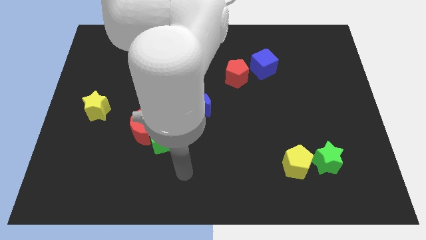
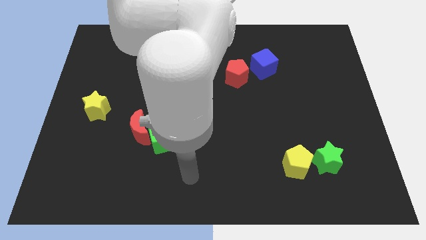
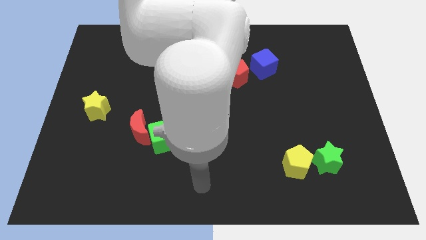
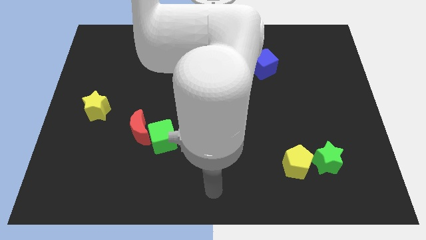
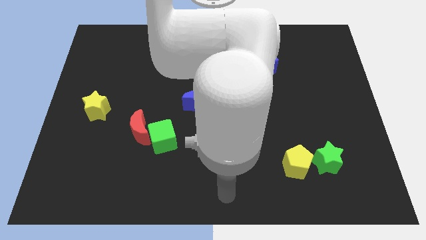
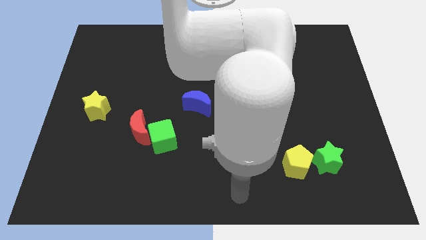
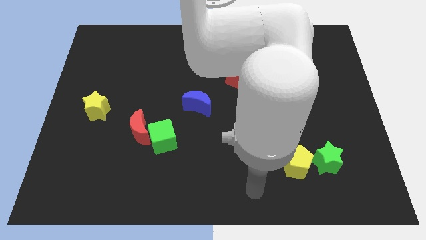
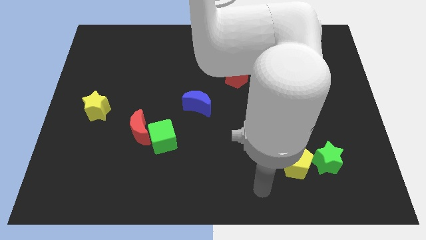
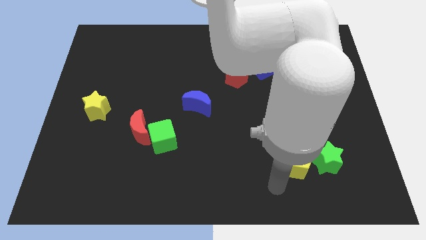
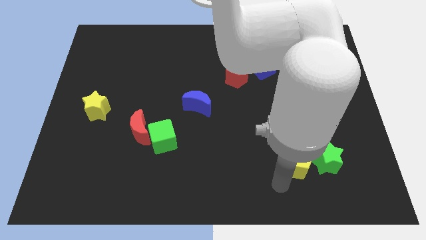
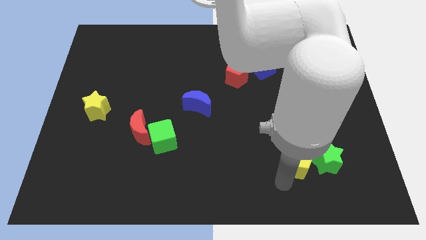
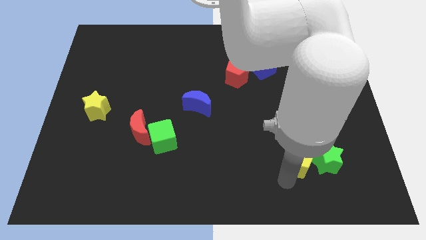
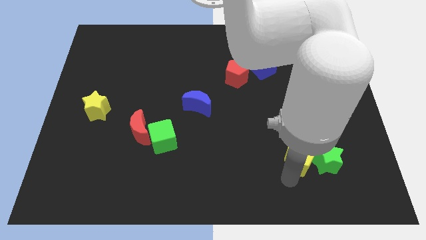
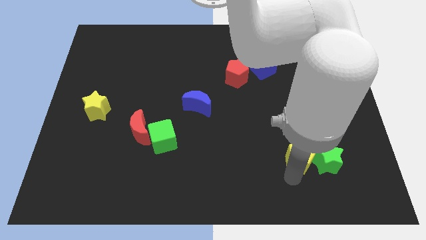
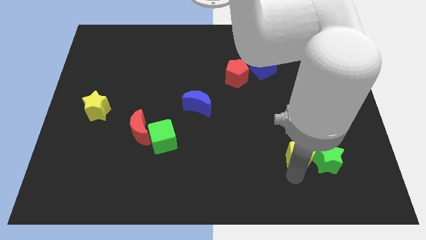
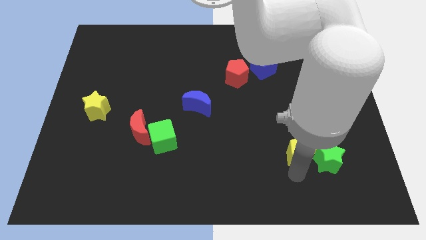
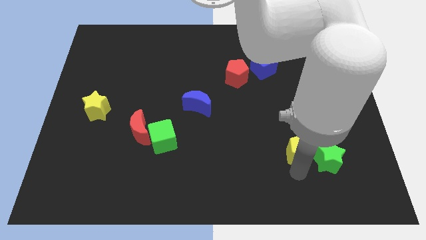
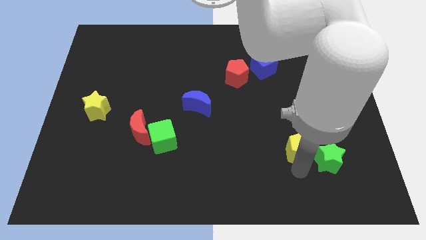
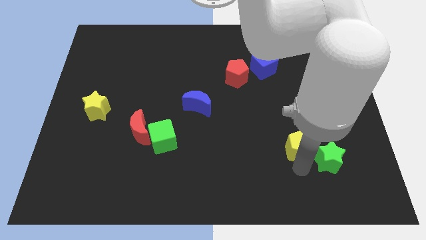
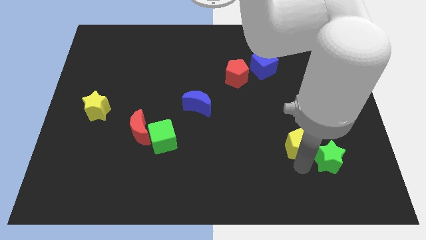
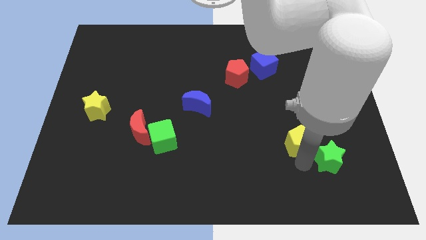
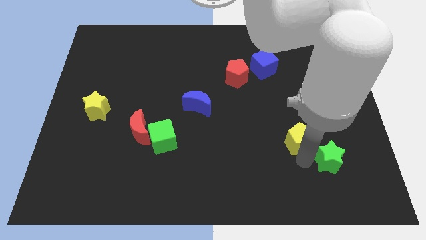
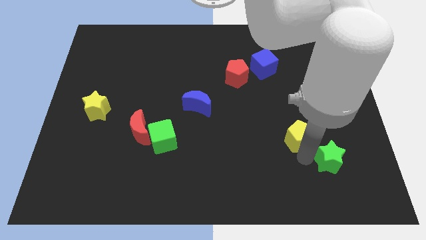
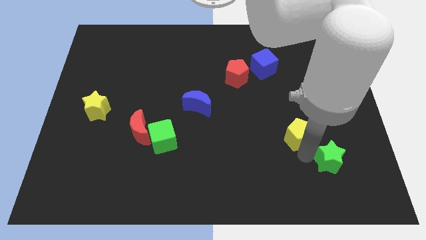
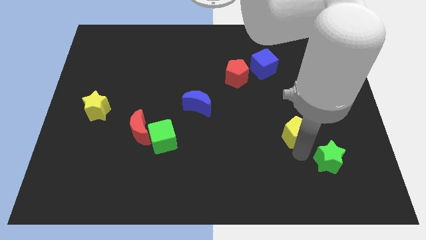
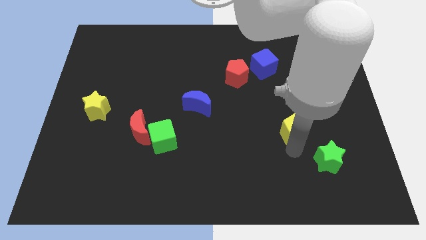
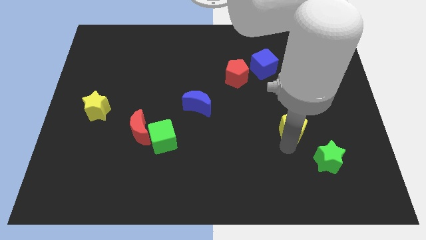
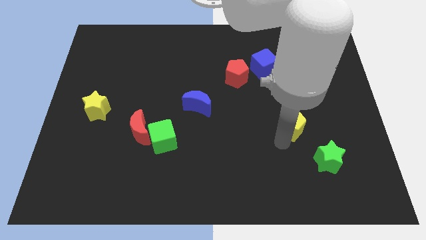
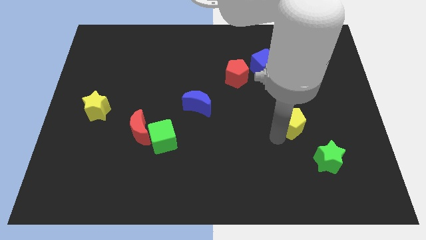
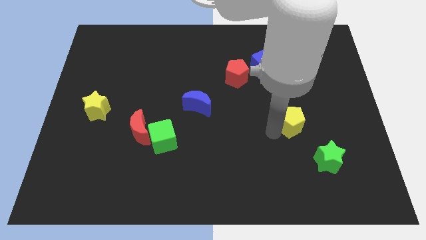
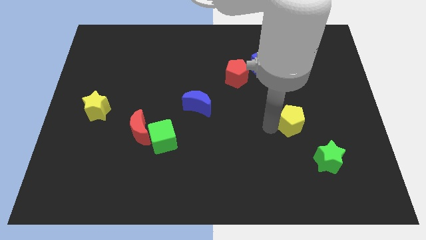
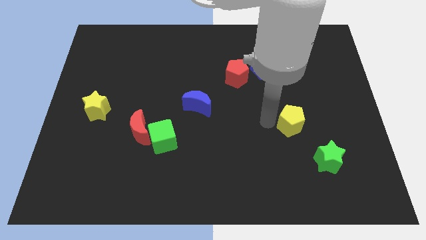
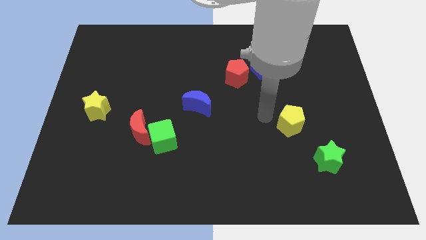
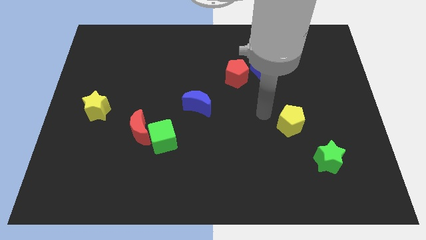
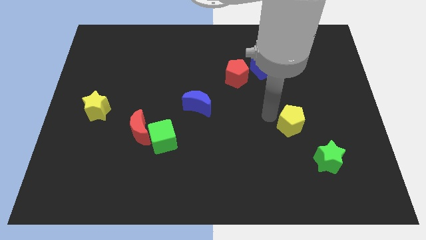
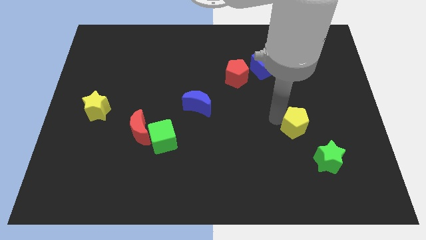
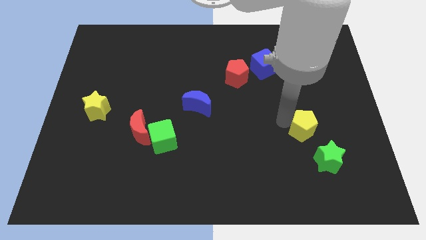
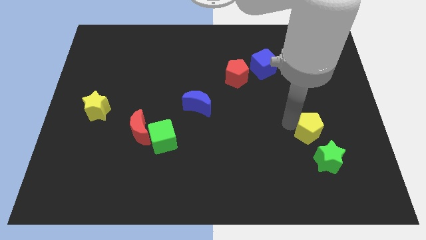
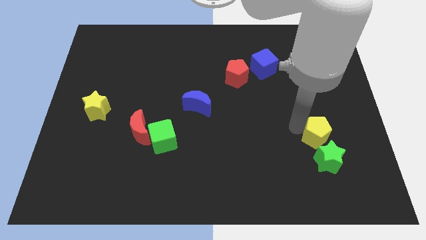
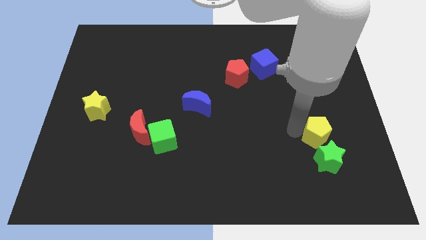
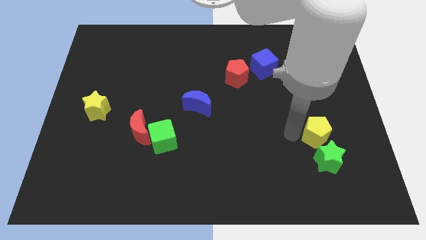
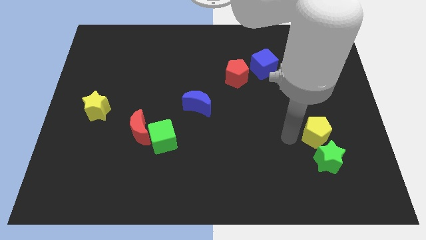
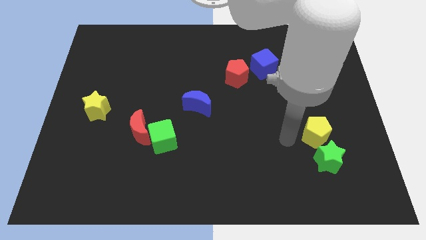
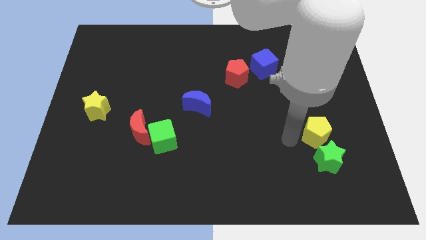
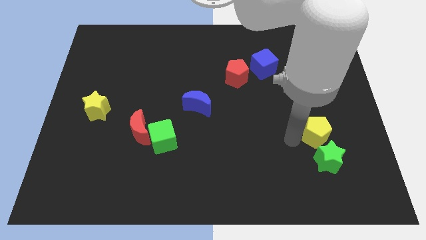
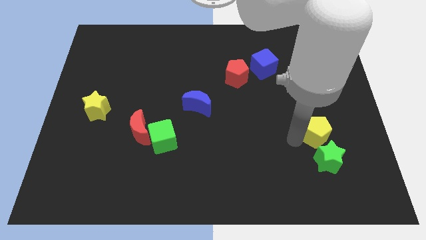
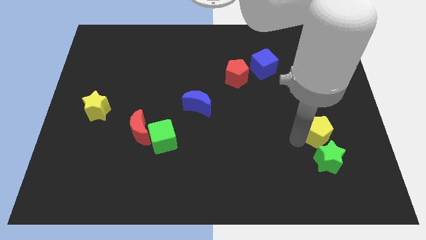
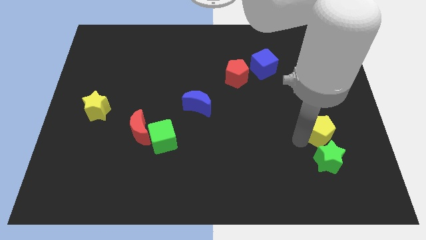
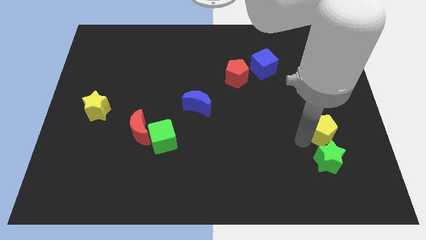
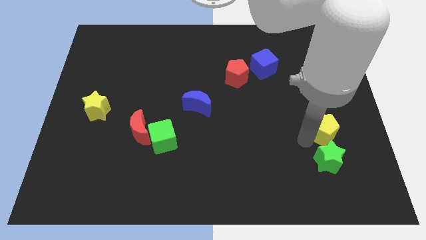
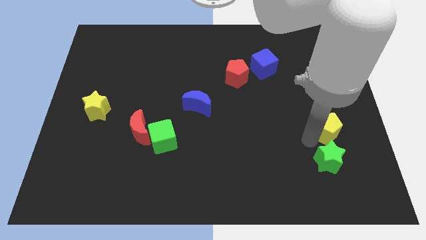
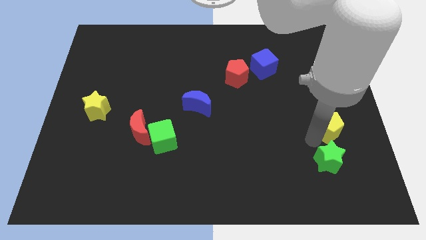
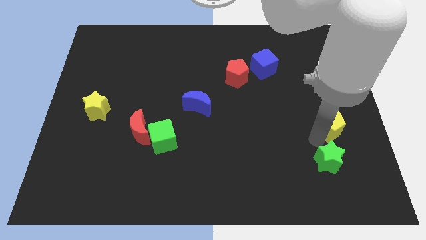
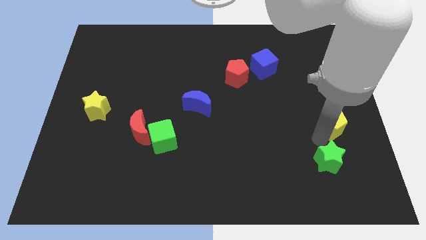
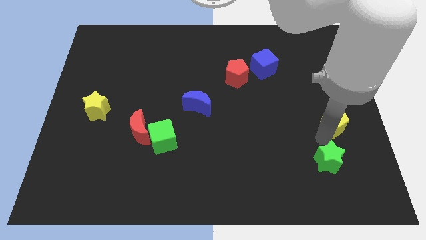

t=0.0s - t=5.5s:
move the yellow pentagon to the right side
